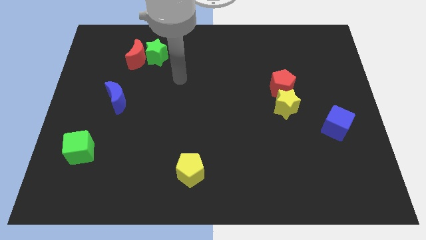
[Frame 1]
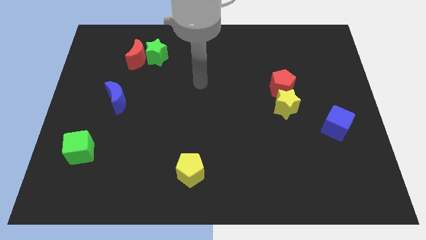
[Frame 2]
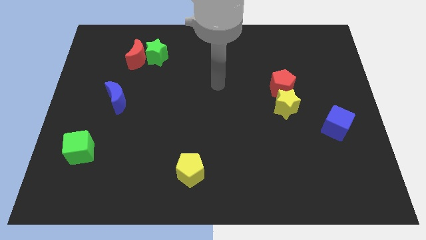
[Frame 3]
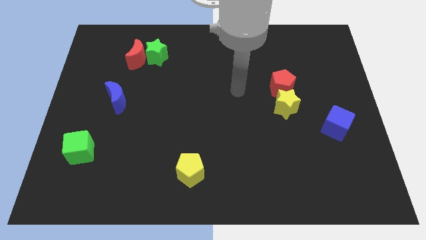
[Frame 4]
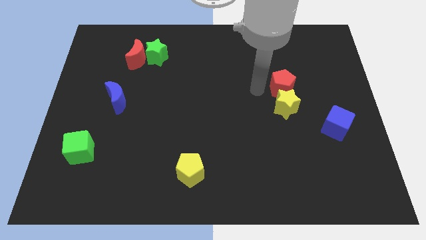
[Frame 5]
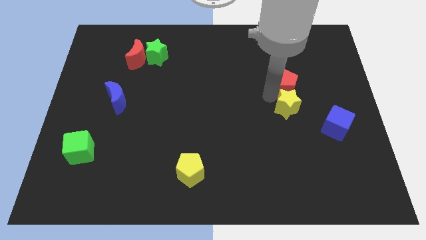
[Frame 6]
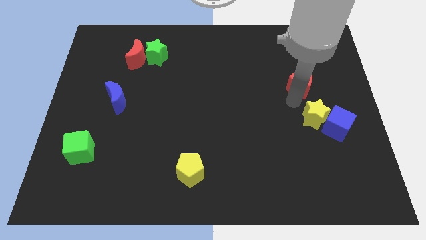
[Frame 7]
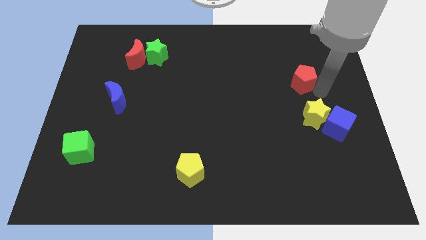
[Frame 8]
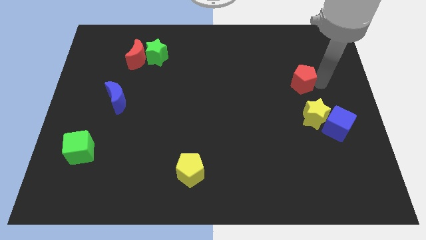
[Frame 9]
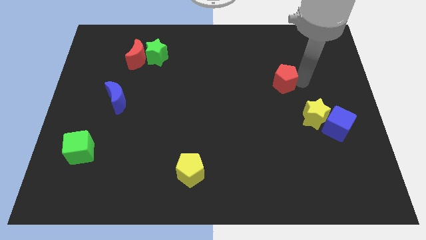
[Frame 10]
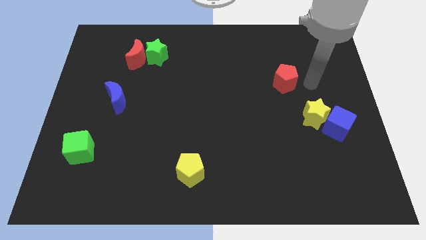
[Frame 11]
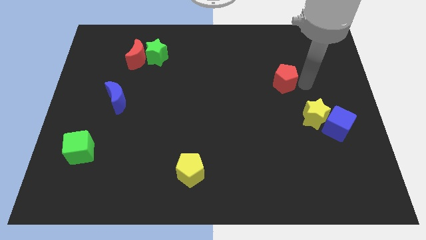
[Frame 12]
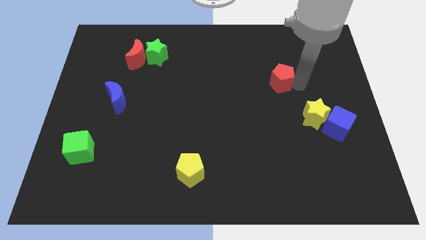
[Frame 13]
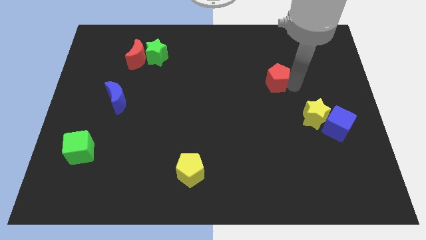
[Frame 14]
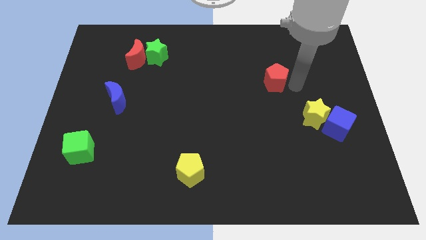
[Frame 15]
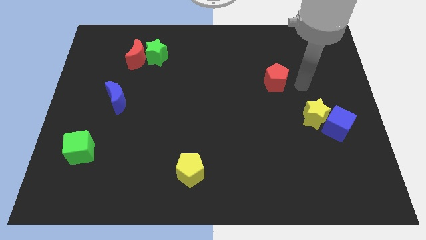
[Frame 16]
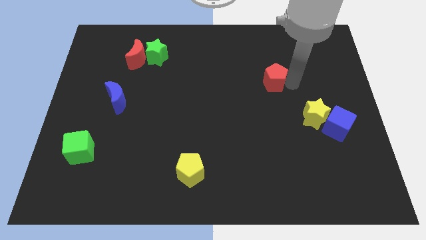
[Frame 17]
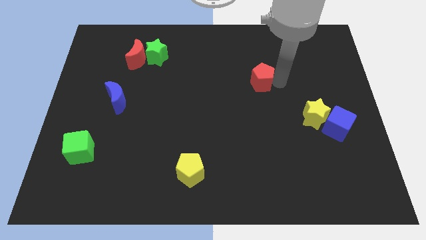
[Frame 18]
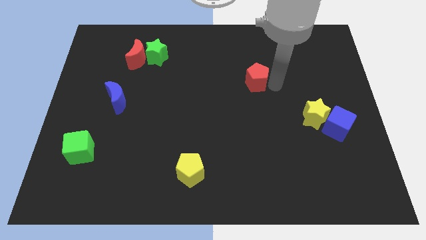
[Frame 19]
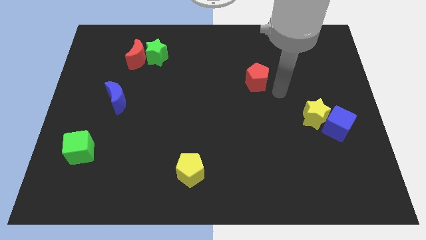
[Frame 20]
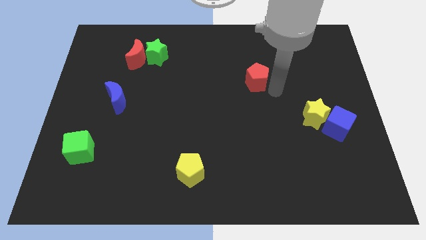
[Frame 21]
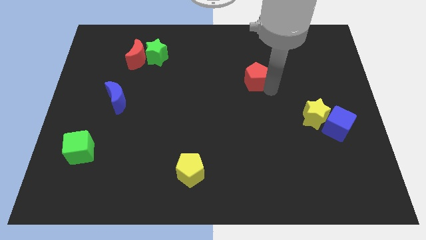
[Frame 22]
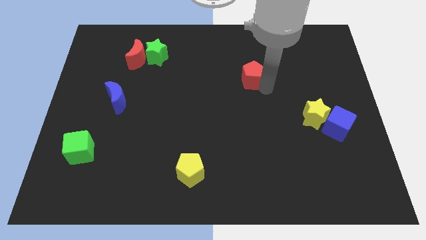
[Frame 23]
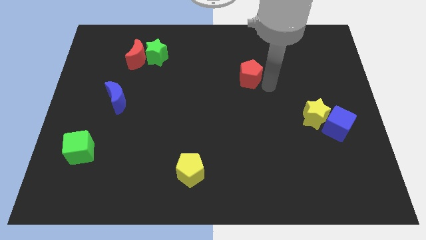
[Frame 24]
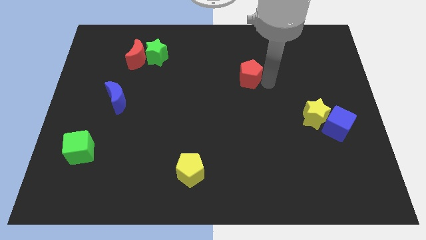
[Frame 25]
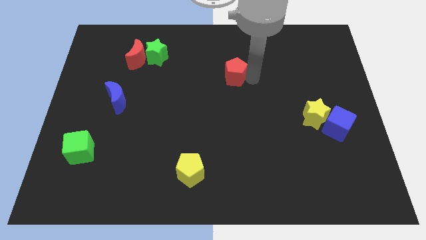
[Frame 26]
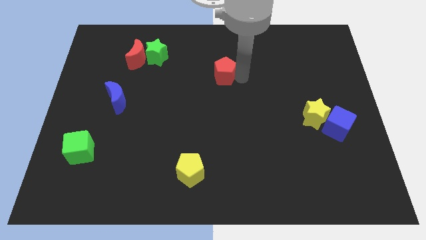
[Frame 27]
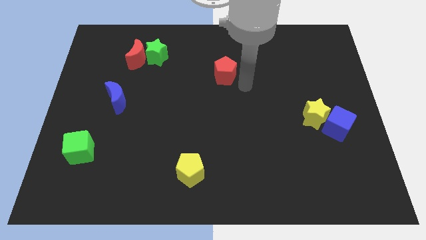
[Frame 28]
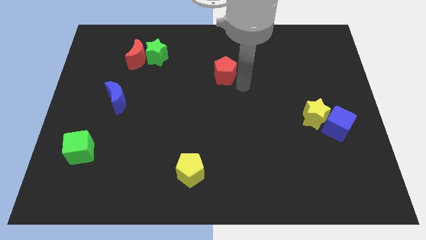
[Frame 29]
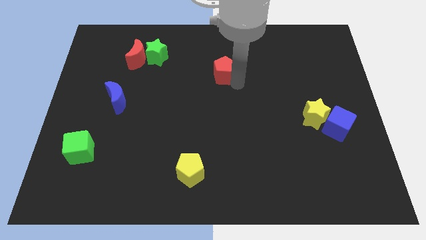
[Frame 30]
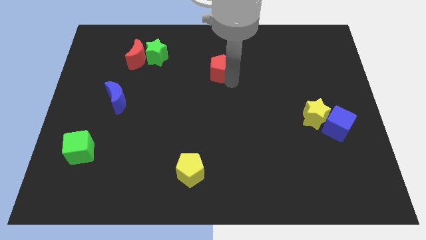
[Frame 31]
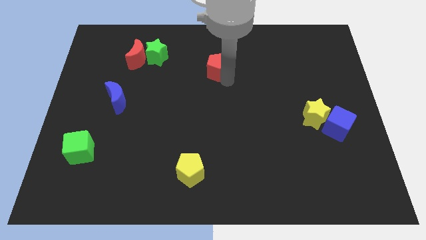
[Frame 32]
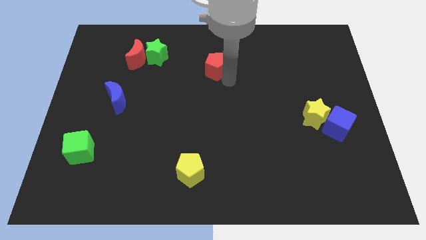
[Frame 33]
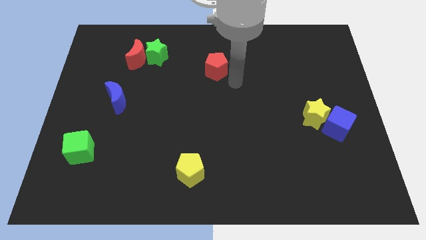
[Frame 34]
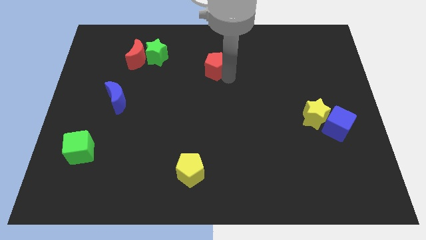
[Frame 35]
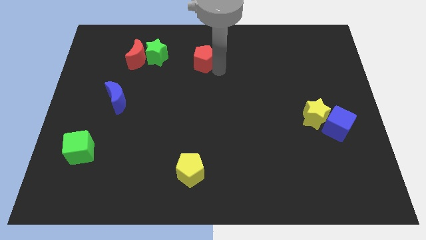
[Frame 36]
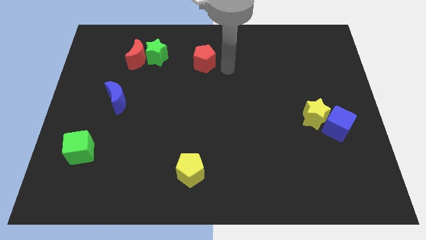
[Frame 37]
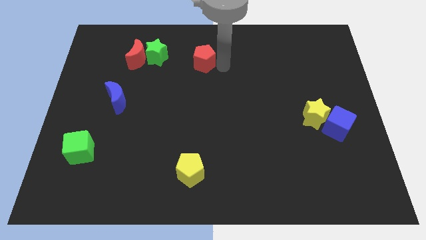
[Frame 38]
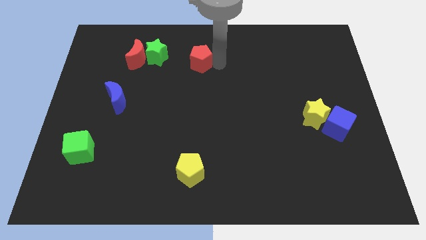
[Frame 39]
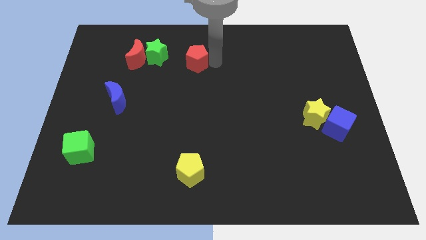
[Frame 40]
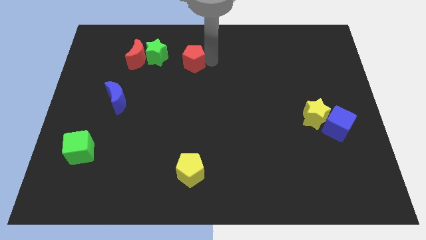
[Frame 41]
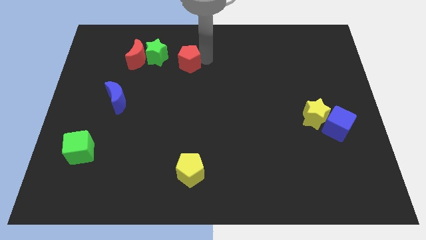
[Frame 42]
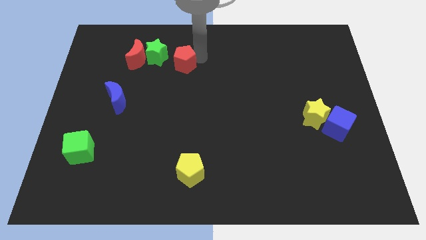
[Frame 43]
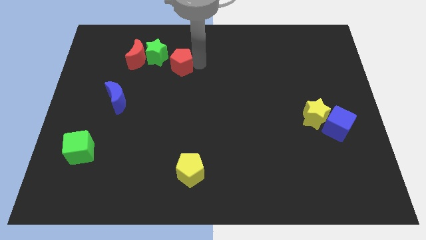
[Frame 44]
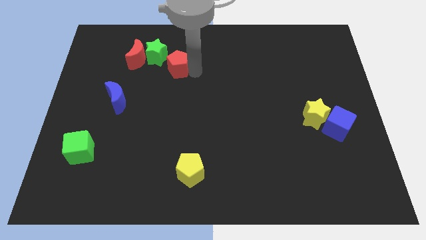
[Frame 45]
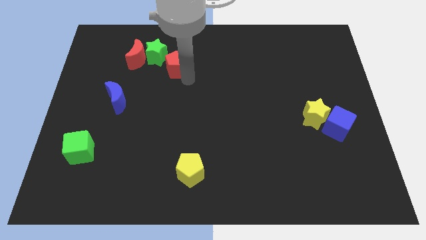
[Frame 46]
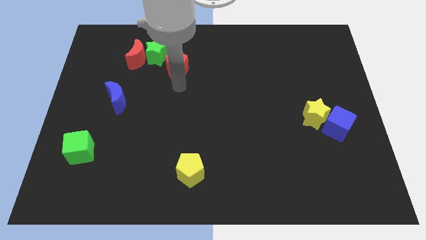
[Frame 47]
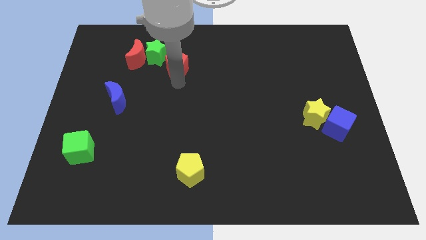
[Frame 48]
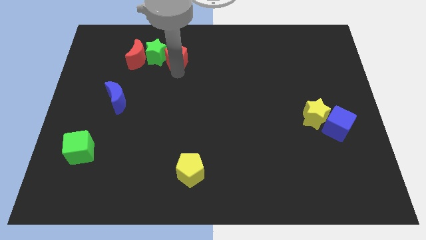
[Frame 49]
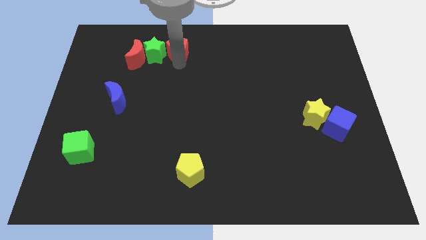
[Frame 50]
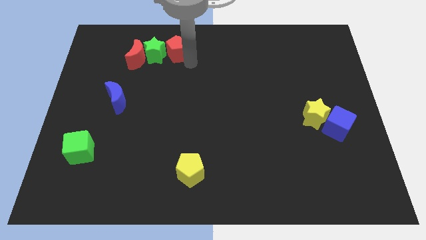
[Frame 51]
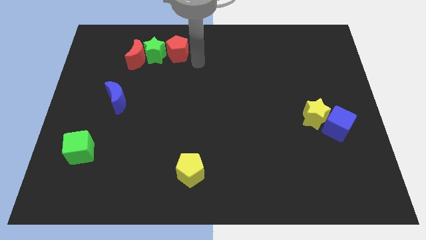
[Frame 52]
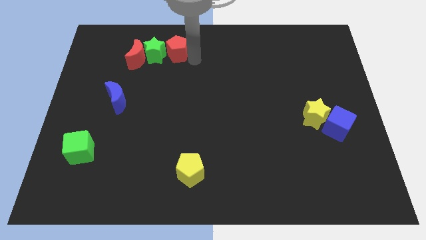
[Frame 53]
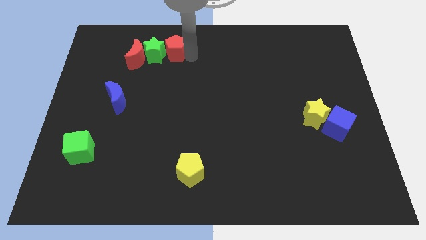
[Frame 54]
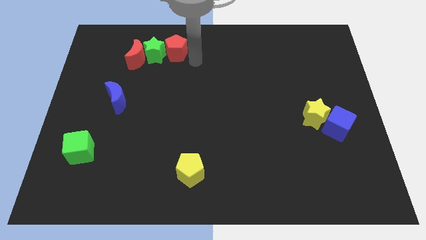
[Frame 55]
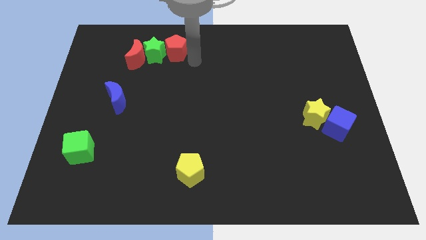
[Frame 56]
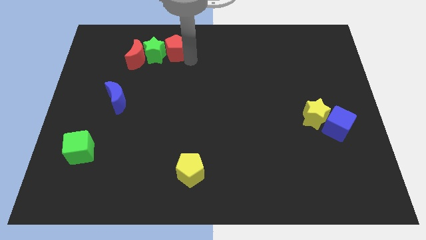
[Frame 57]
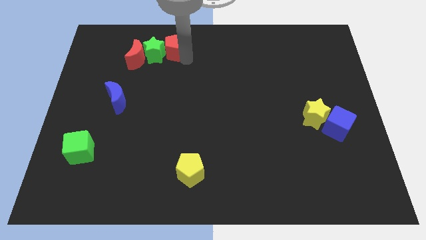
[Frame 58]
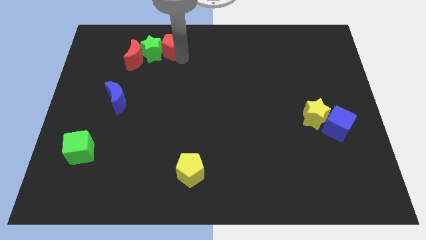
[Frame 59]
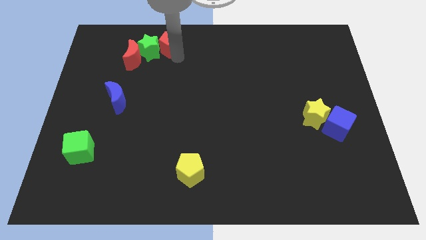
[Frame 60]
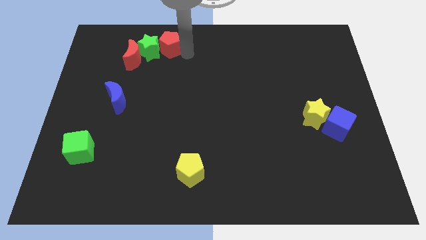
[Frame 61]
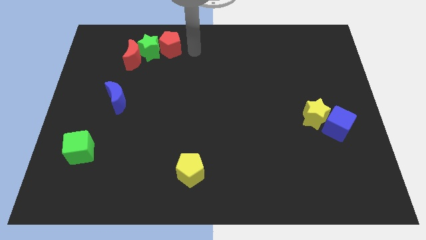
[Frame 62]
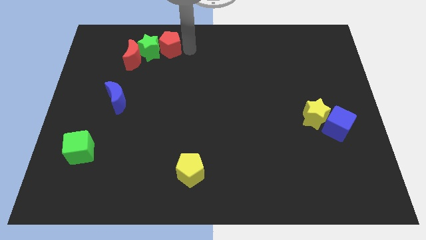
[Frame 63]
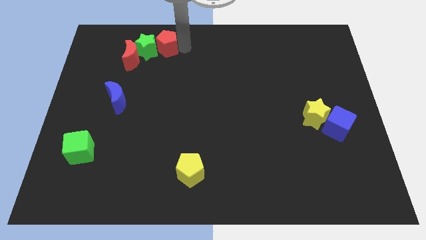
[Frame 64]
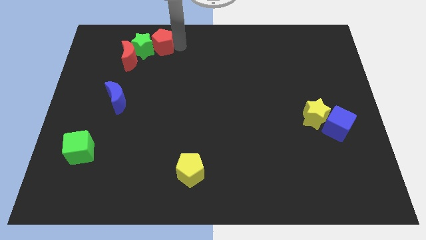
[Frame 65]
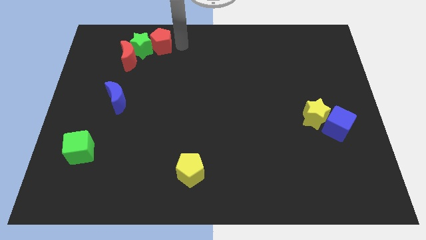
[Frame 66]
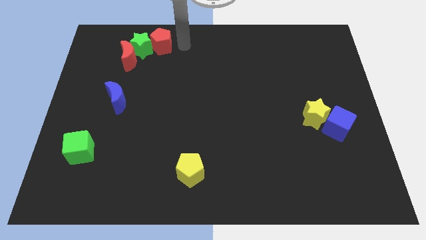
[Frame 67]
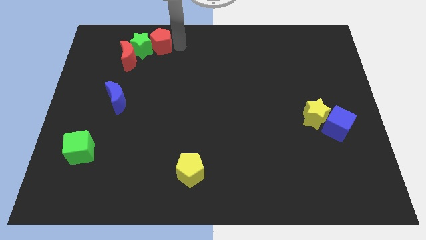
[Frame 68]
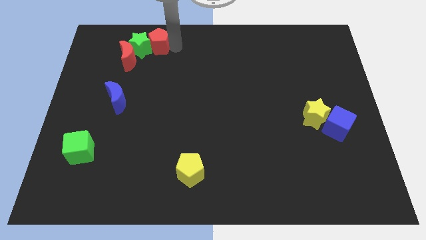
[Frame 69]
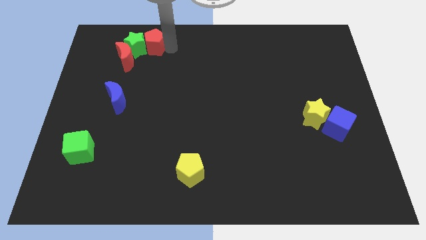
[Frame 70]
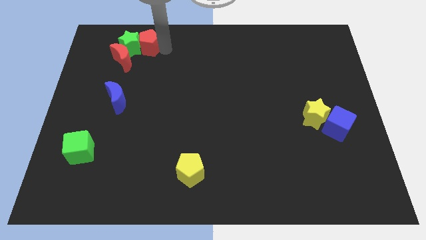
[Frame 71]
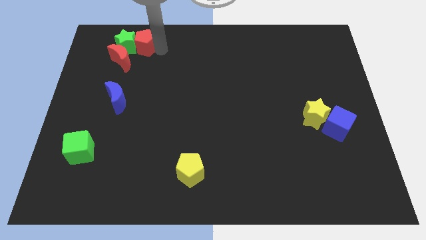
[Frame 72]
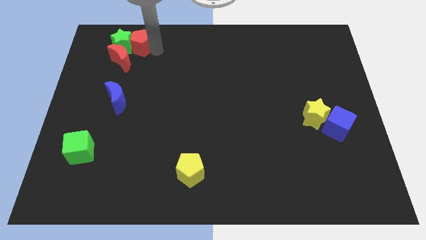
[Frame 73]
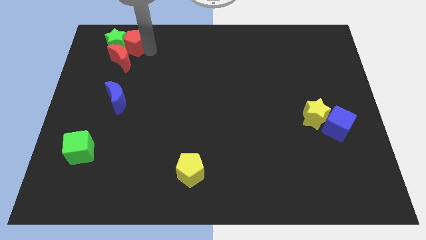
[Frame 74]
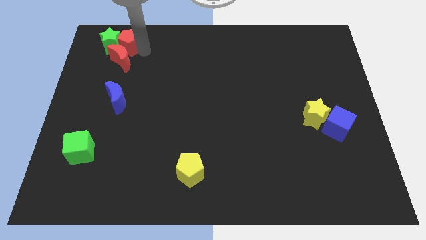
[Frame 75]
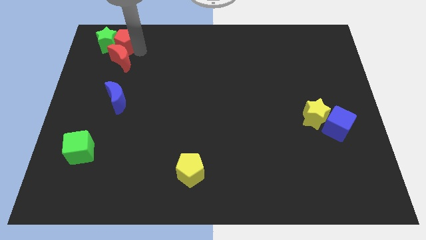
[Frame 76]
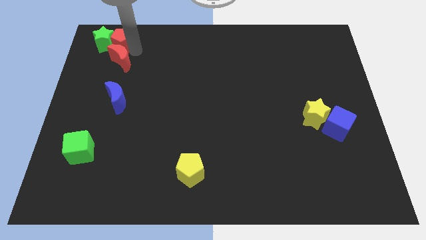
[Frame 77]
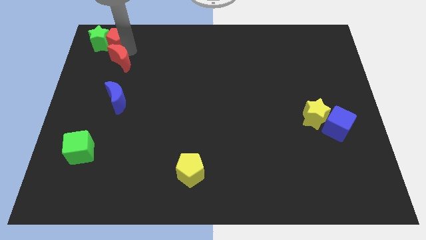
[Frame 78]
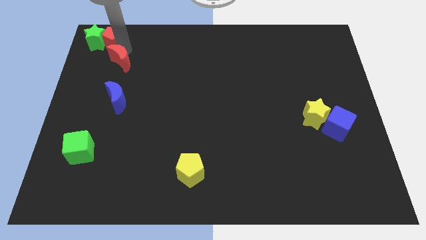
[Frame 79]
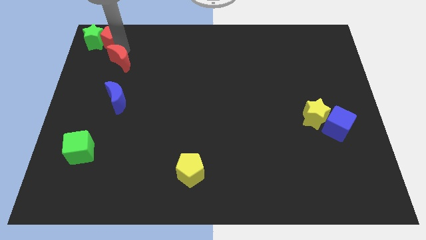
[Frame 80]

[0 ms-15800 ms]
push the red pentagon to the top left corner
